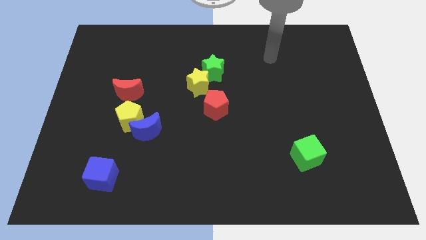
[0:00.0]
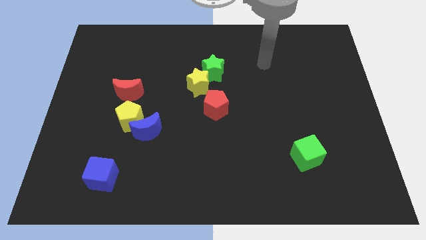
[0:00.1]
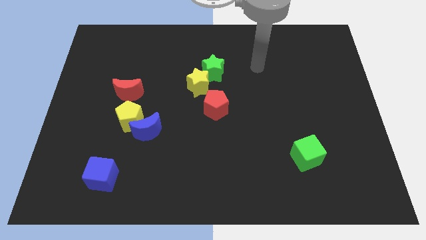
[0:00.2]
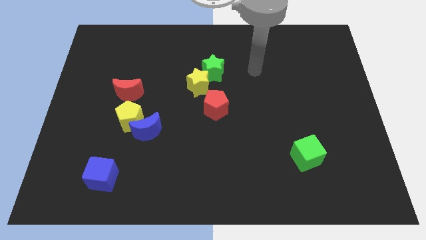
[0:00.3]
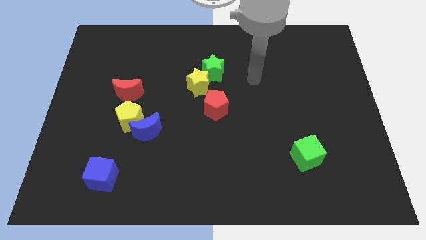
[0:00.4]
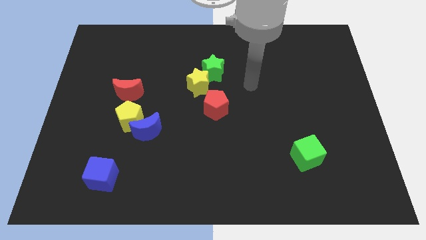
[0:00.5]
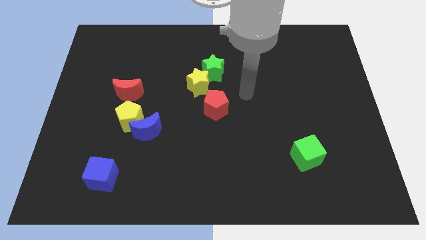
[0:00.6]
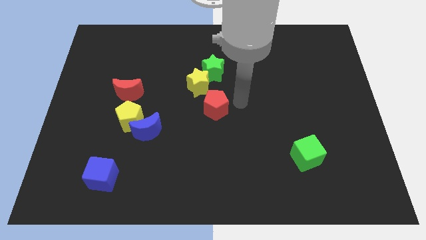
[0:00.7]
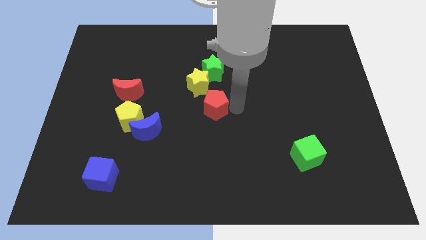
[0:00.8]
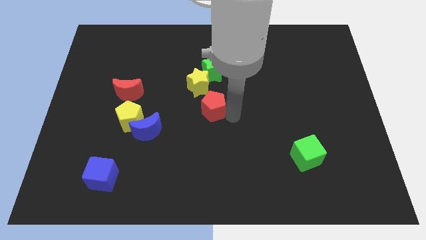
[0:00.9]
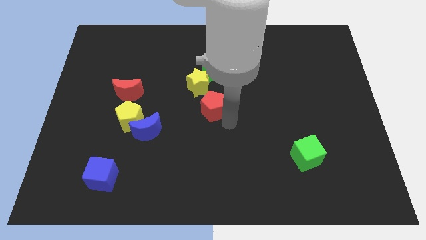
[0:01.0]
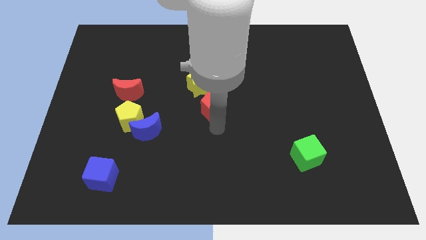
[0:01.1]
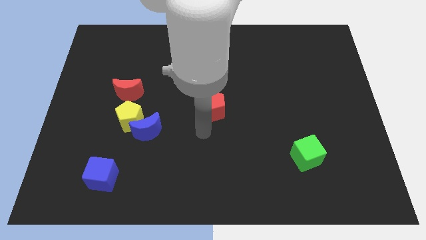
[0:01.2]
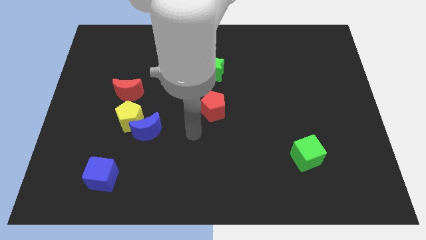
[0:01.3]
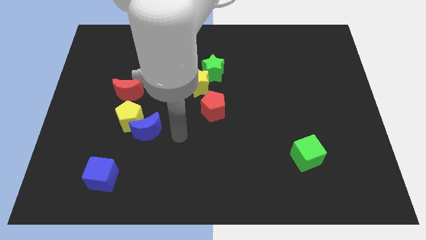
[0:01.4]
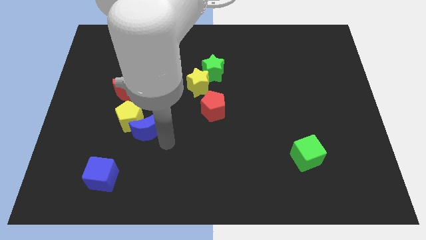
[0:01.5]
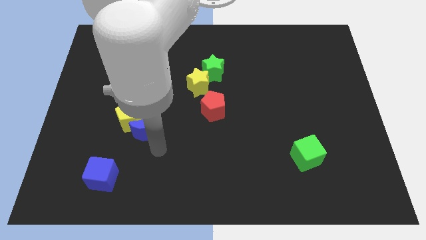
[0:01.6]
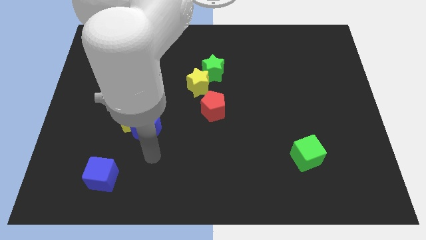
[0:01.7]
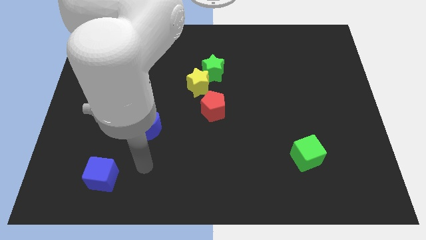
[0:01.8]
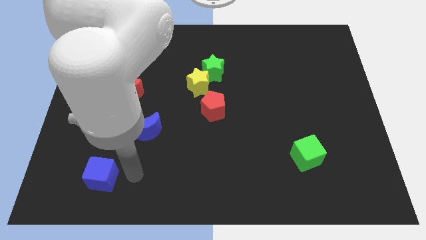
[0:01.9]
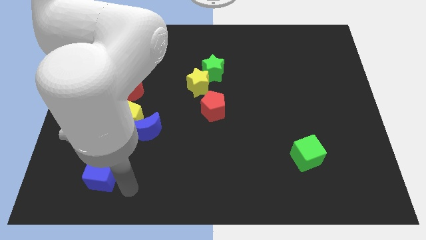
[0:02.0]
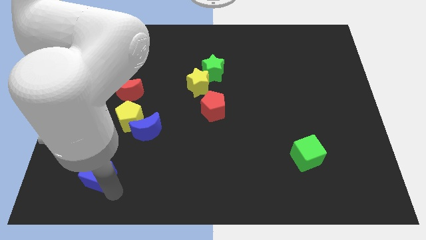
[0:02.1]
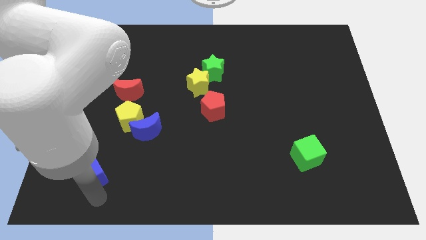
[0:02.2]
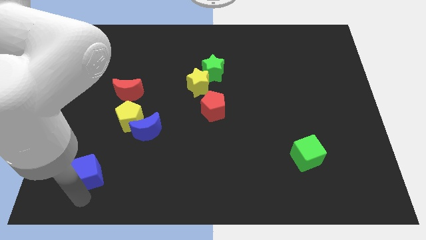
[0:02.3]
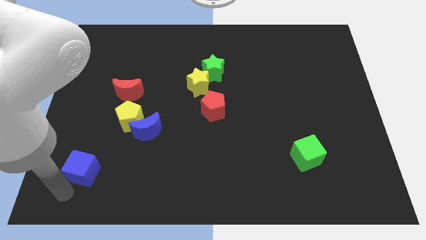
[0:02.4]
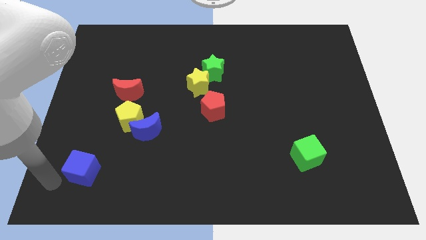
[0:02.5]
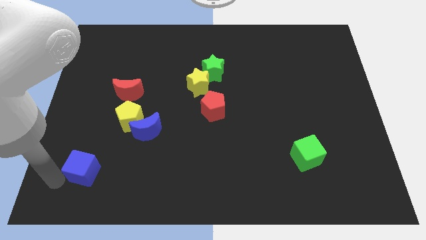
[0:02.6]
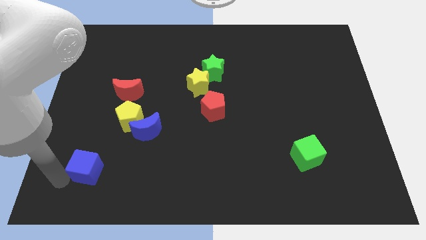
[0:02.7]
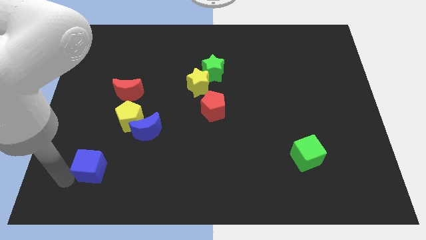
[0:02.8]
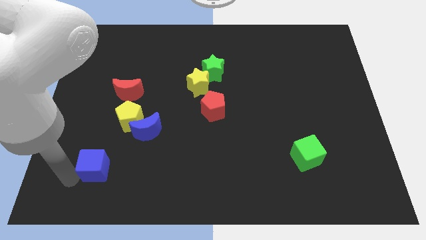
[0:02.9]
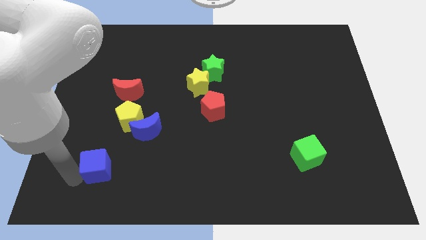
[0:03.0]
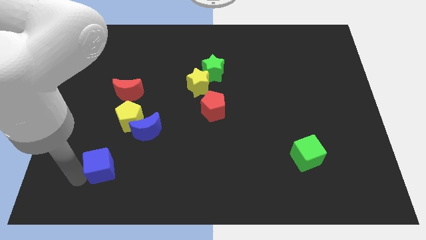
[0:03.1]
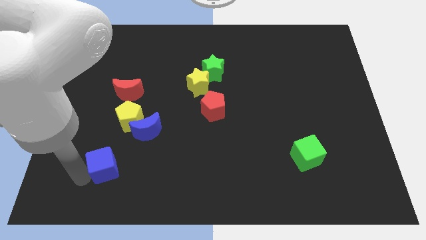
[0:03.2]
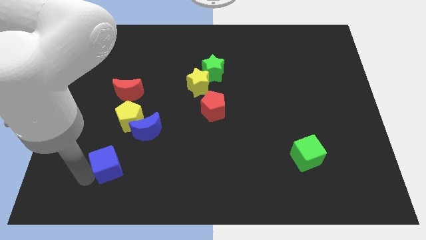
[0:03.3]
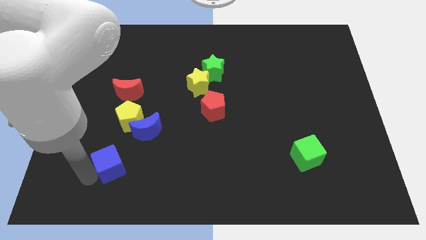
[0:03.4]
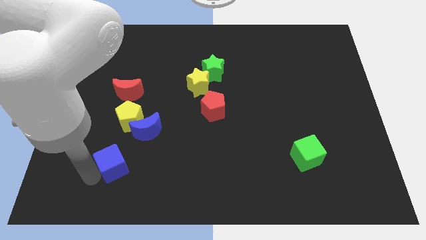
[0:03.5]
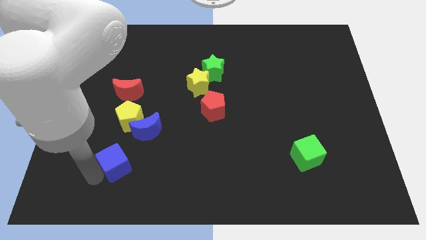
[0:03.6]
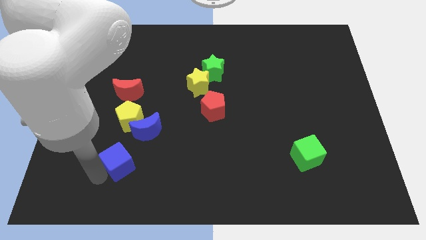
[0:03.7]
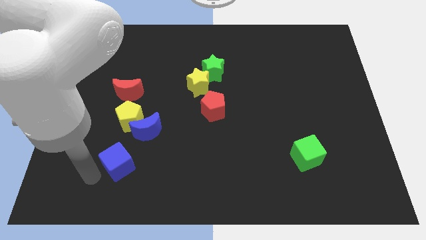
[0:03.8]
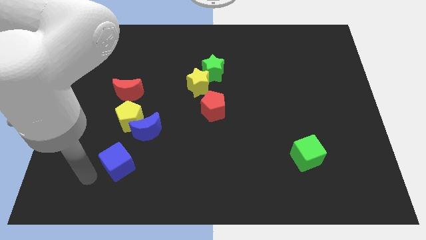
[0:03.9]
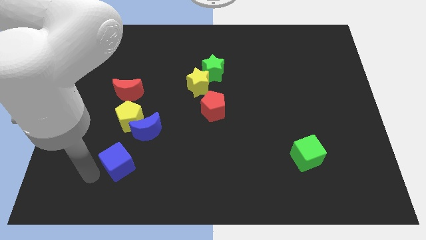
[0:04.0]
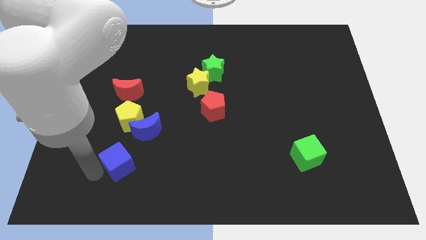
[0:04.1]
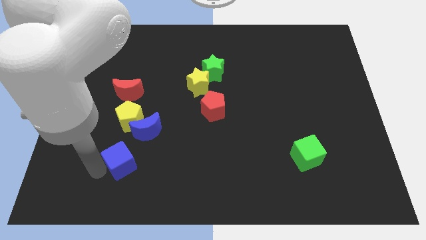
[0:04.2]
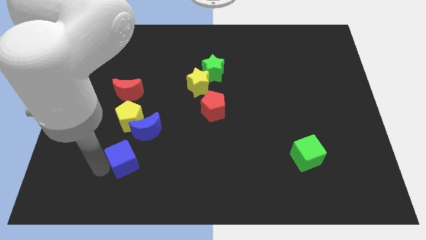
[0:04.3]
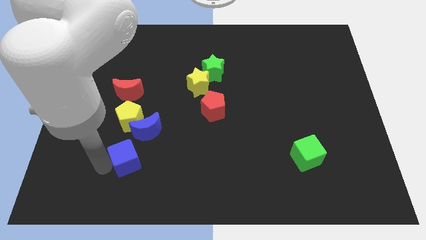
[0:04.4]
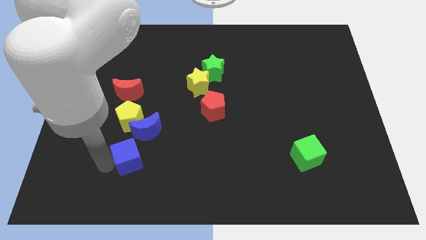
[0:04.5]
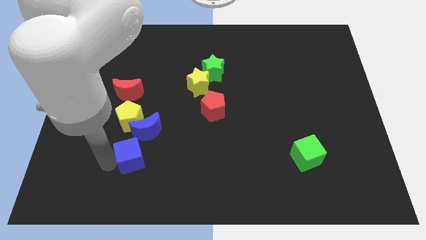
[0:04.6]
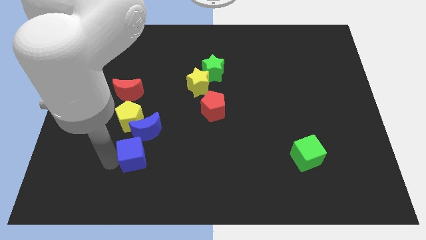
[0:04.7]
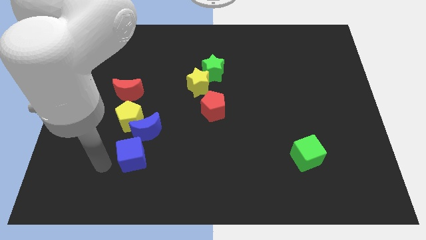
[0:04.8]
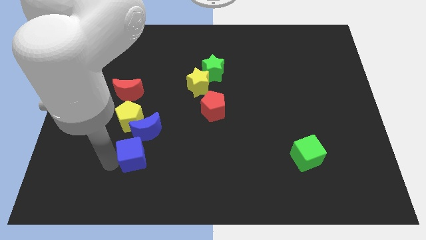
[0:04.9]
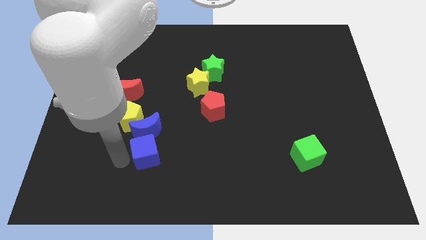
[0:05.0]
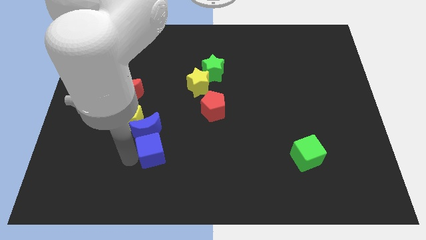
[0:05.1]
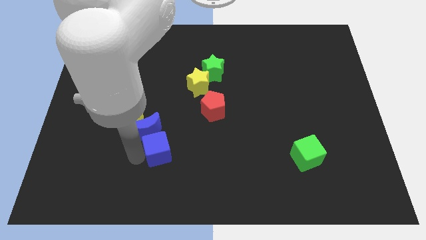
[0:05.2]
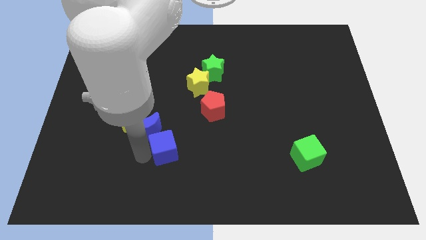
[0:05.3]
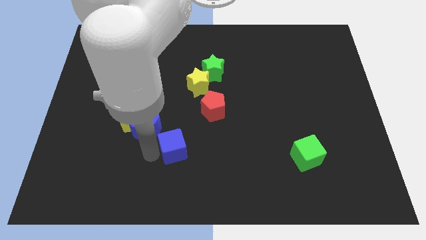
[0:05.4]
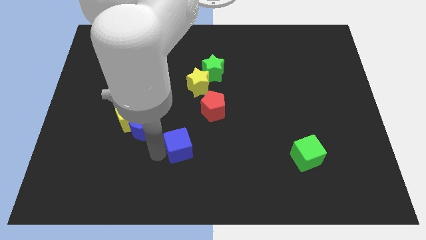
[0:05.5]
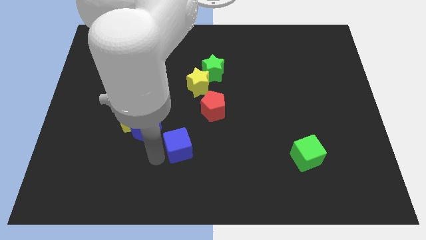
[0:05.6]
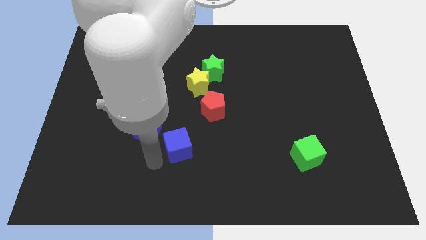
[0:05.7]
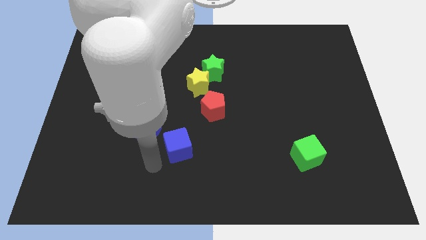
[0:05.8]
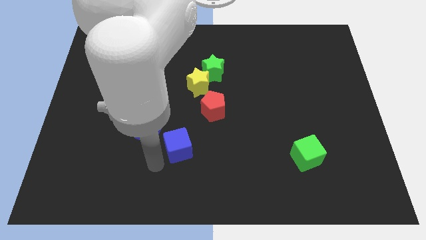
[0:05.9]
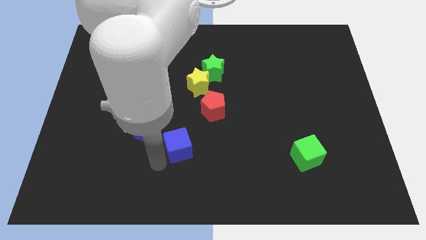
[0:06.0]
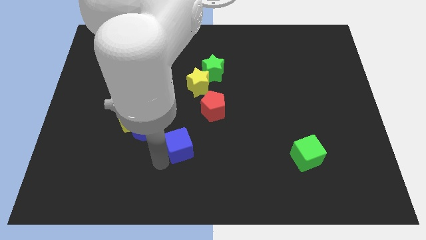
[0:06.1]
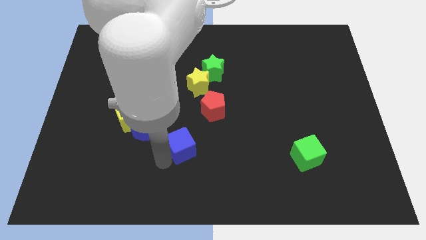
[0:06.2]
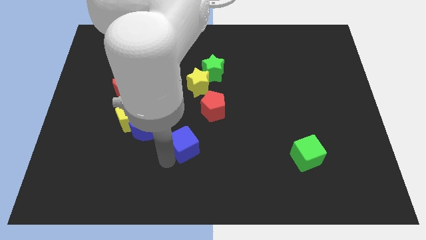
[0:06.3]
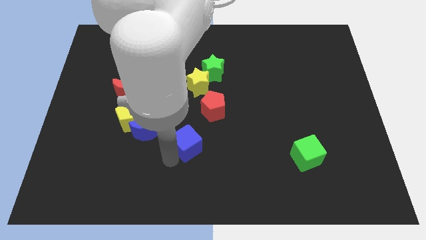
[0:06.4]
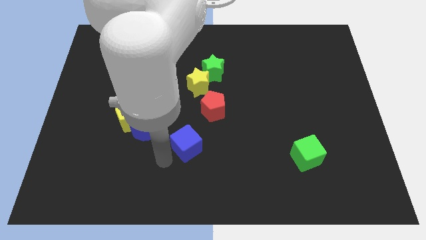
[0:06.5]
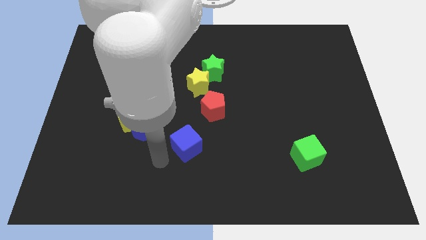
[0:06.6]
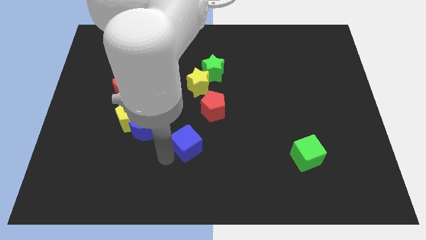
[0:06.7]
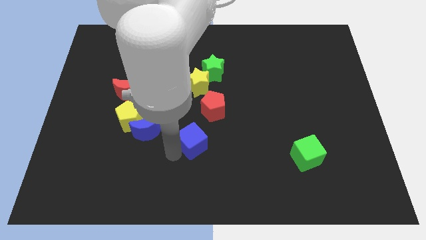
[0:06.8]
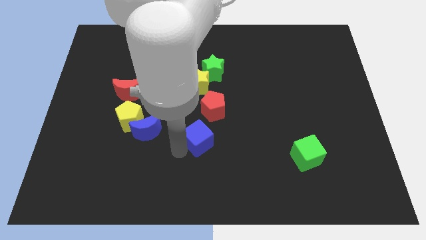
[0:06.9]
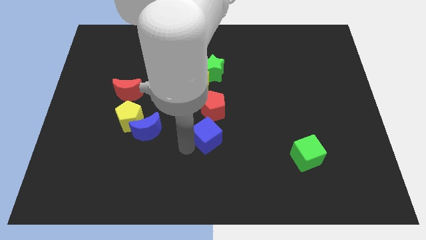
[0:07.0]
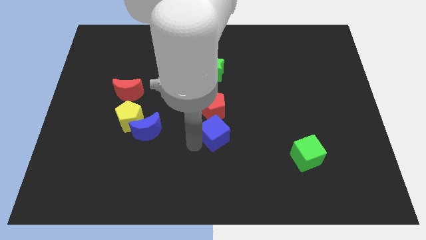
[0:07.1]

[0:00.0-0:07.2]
slide the blue cube upwards and right

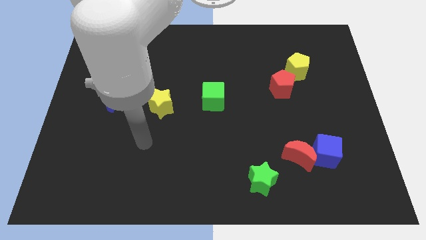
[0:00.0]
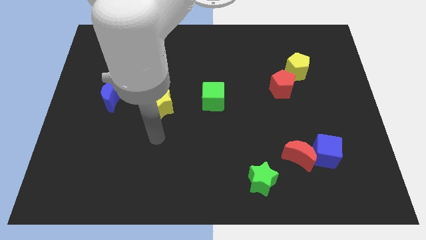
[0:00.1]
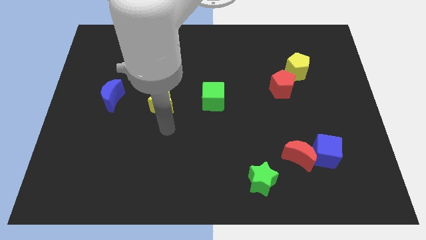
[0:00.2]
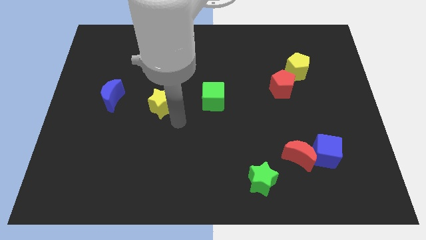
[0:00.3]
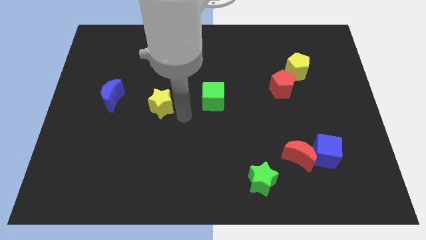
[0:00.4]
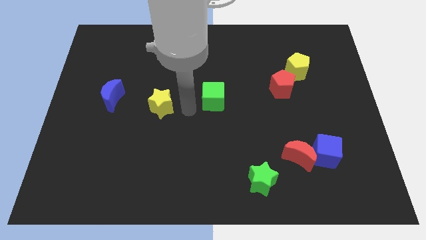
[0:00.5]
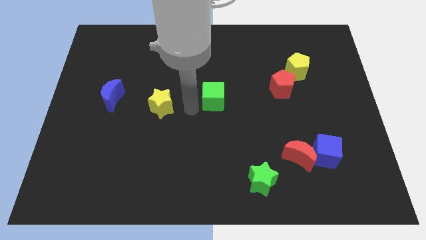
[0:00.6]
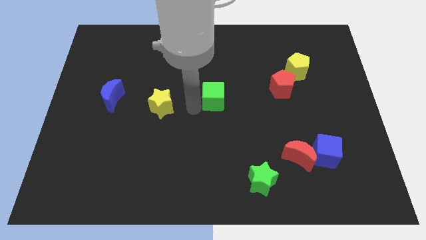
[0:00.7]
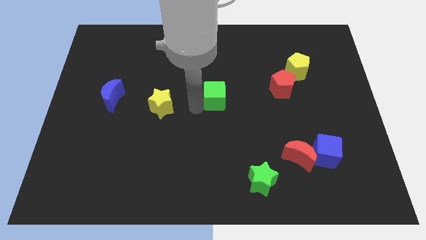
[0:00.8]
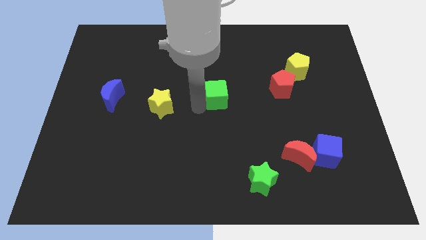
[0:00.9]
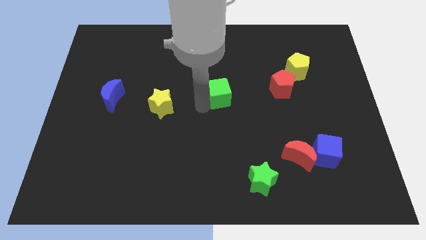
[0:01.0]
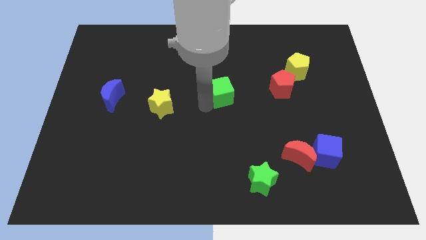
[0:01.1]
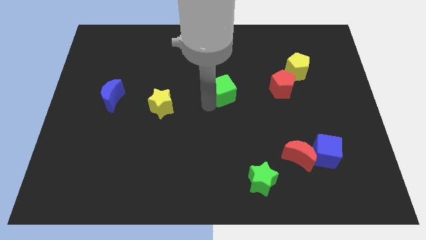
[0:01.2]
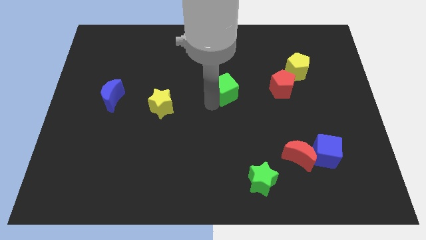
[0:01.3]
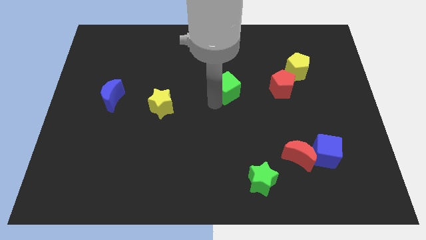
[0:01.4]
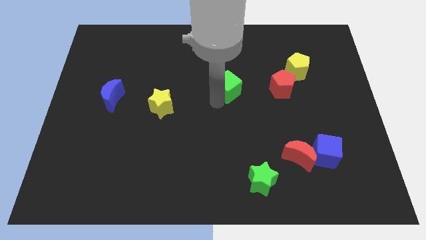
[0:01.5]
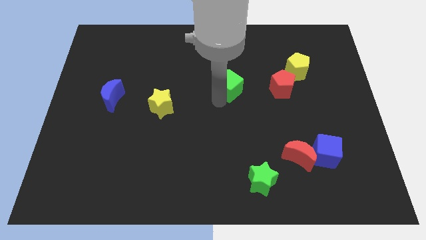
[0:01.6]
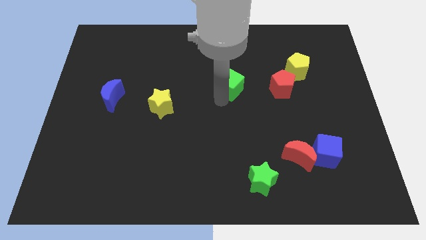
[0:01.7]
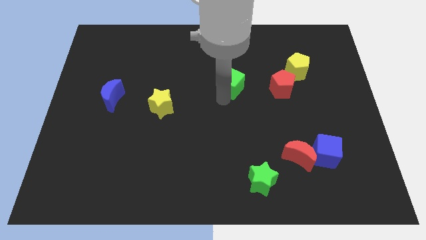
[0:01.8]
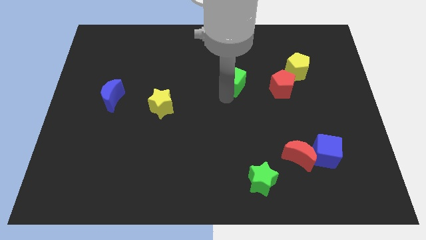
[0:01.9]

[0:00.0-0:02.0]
slightly slide the green cube upwards and right diagonally
